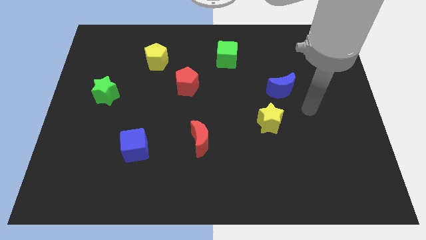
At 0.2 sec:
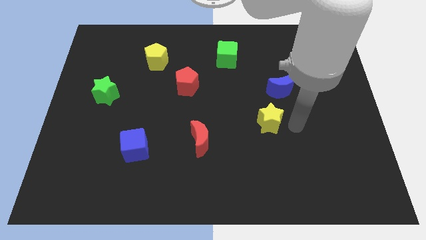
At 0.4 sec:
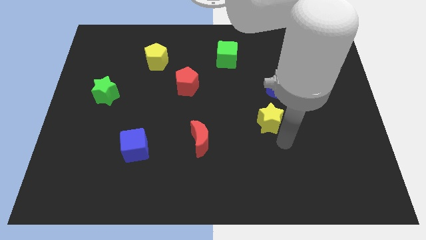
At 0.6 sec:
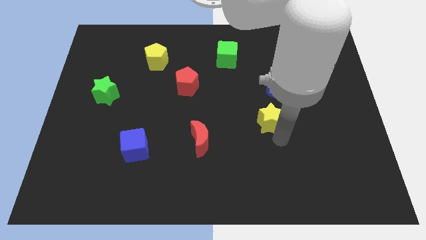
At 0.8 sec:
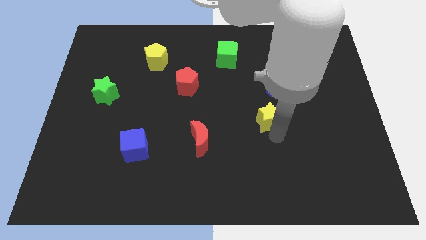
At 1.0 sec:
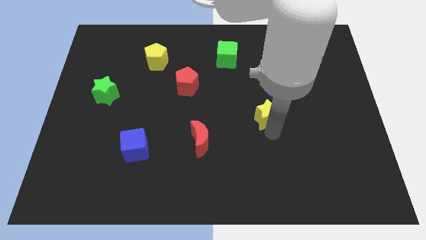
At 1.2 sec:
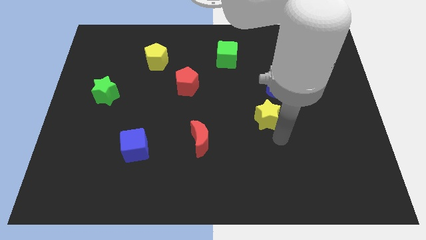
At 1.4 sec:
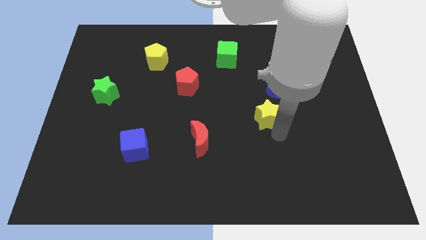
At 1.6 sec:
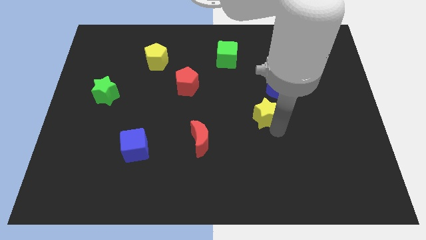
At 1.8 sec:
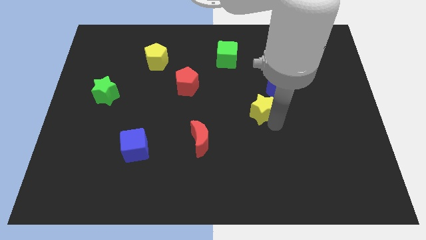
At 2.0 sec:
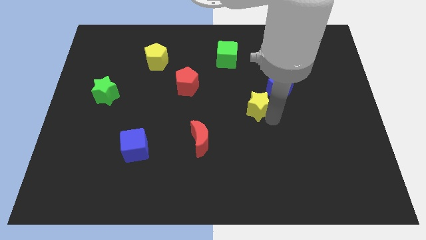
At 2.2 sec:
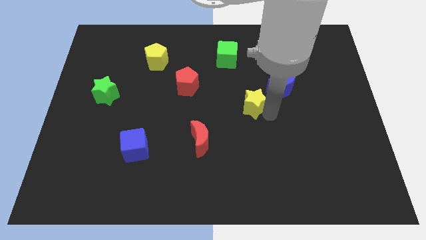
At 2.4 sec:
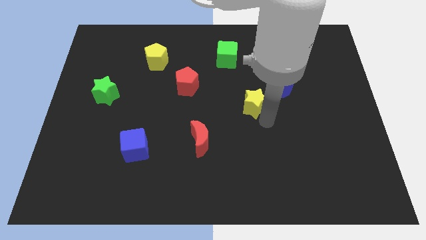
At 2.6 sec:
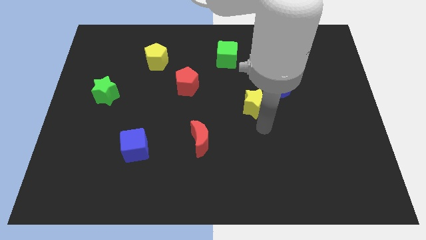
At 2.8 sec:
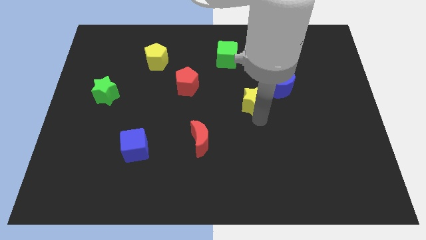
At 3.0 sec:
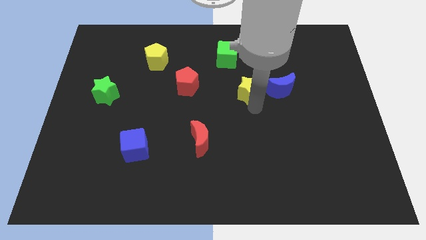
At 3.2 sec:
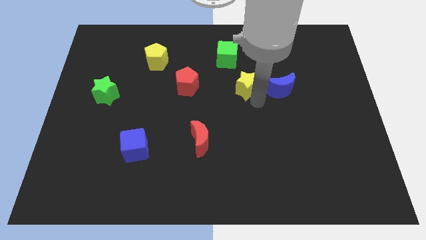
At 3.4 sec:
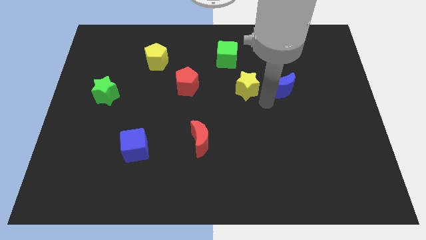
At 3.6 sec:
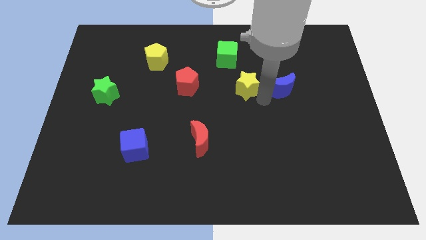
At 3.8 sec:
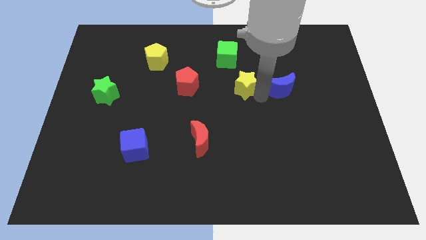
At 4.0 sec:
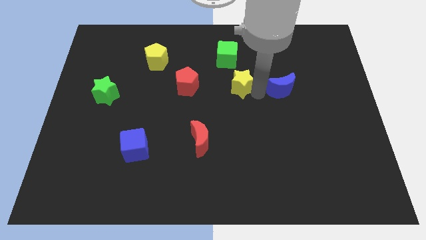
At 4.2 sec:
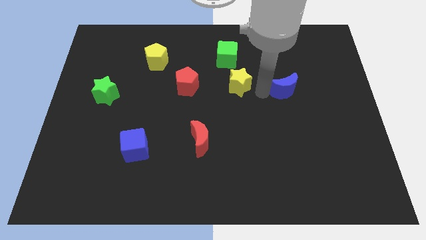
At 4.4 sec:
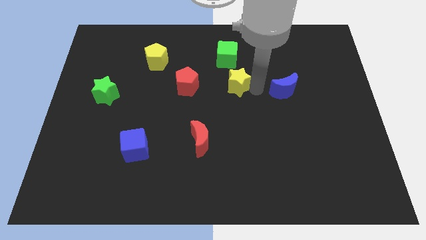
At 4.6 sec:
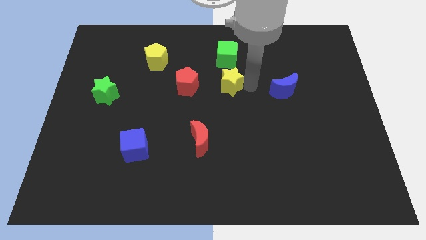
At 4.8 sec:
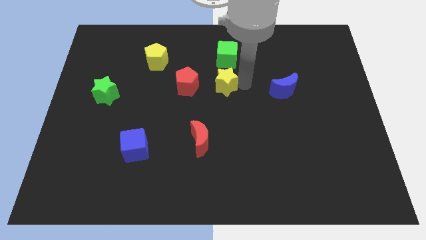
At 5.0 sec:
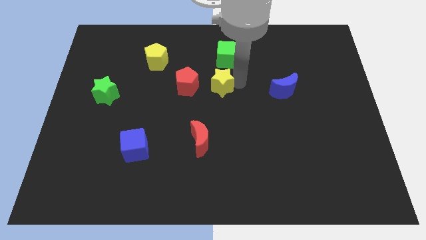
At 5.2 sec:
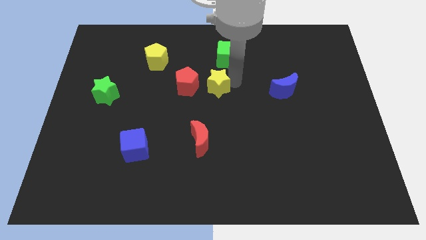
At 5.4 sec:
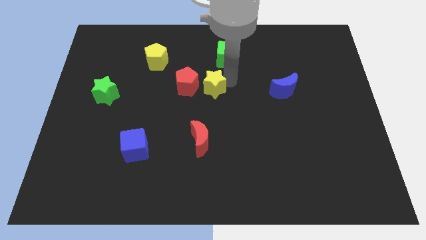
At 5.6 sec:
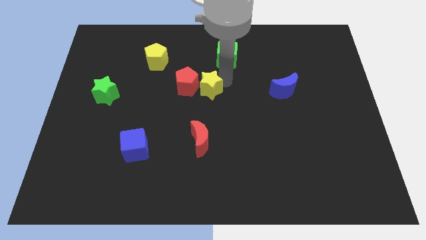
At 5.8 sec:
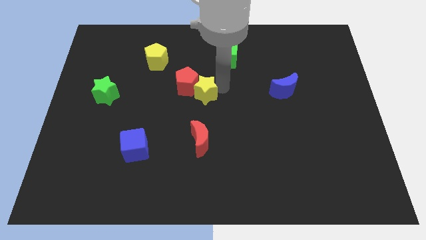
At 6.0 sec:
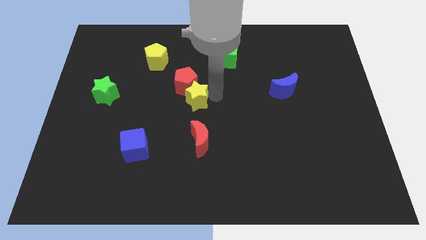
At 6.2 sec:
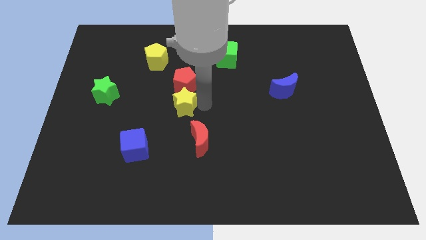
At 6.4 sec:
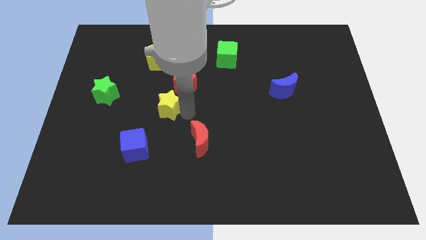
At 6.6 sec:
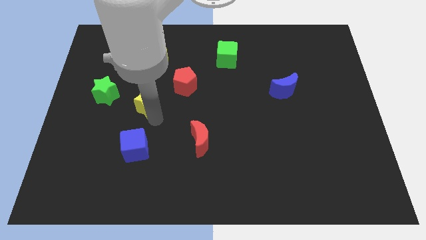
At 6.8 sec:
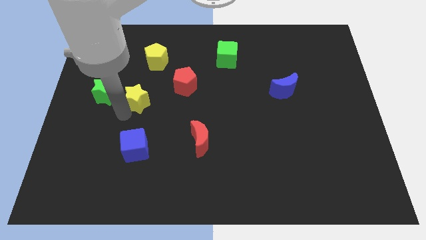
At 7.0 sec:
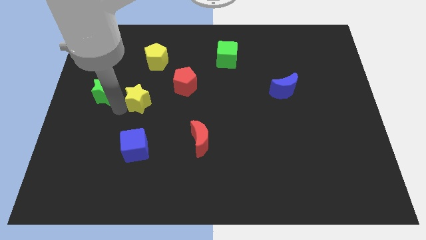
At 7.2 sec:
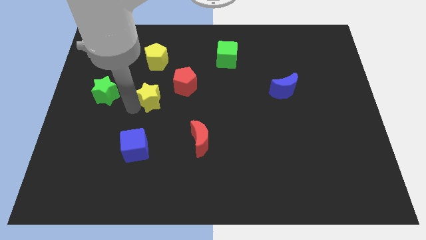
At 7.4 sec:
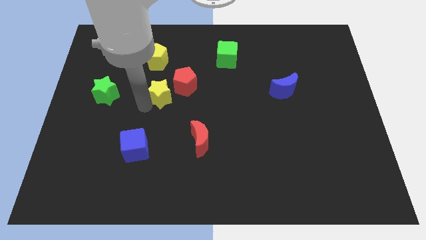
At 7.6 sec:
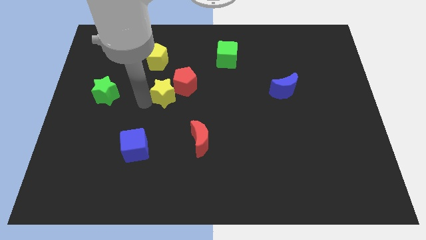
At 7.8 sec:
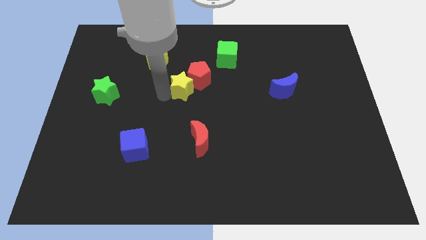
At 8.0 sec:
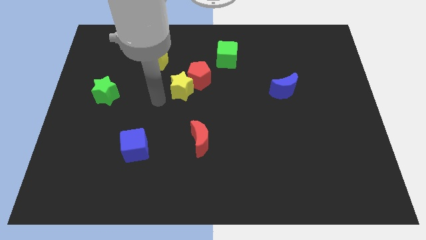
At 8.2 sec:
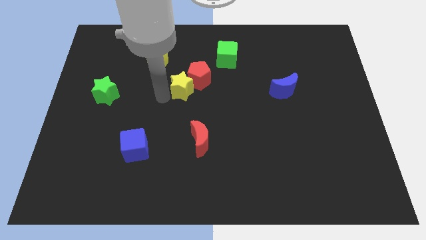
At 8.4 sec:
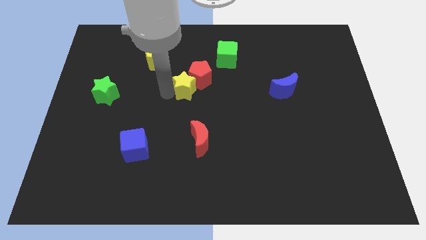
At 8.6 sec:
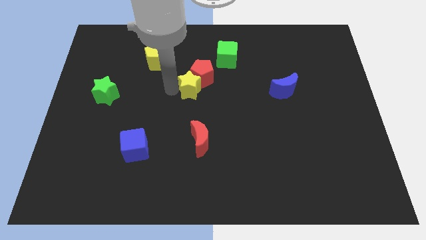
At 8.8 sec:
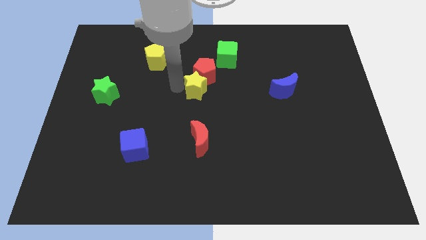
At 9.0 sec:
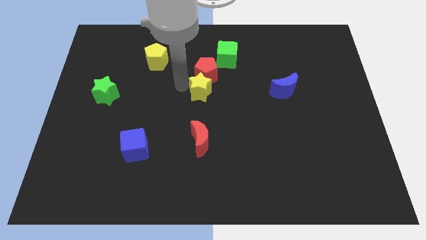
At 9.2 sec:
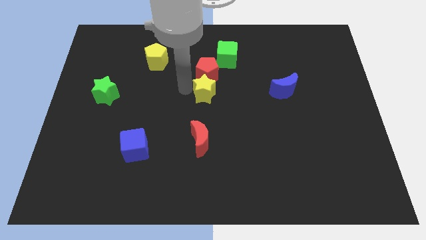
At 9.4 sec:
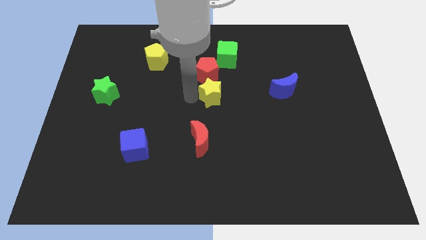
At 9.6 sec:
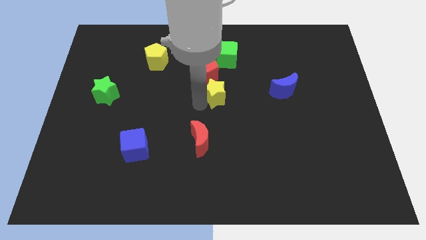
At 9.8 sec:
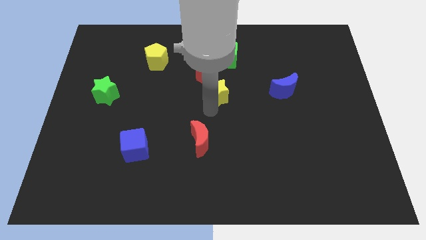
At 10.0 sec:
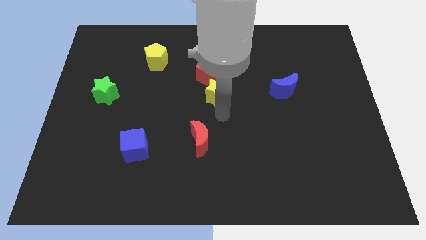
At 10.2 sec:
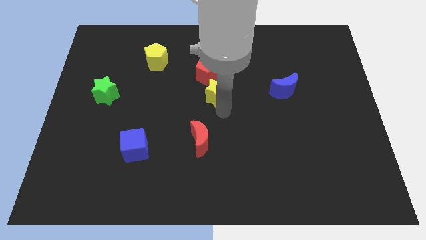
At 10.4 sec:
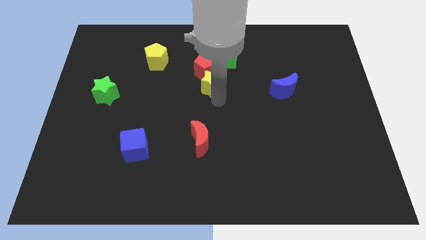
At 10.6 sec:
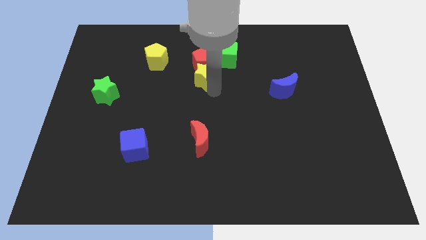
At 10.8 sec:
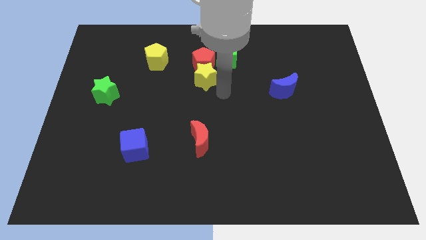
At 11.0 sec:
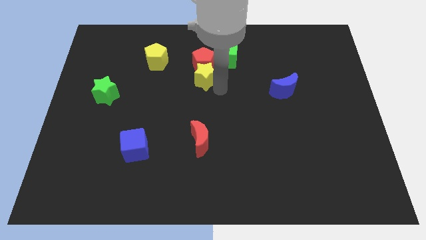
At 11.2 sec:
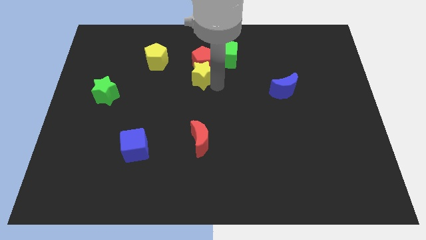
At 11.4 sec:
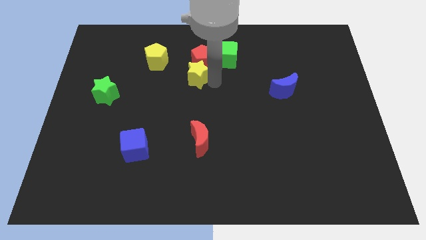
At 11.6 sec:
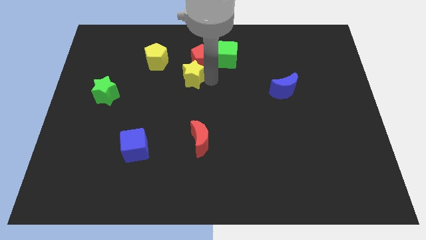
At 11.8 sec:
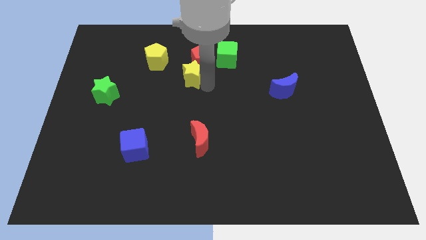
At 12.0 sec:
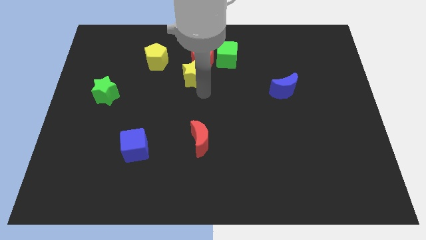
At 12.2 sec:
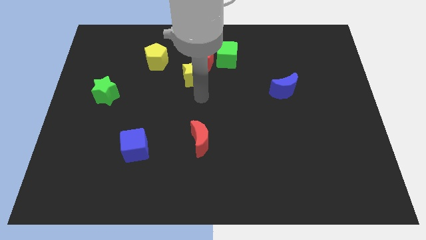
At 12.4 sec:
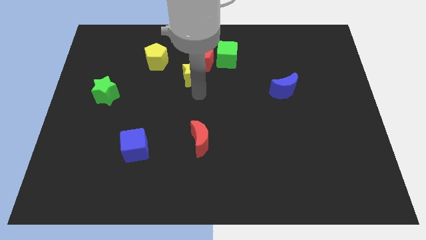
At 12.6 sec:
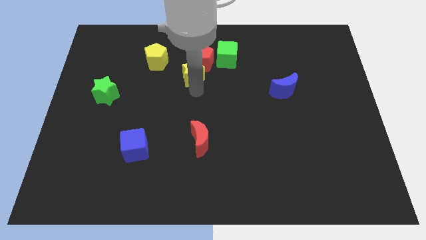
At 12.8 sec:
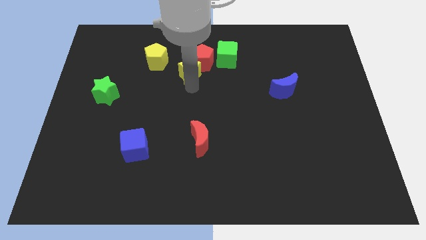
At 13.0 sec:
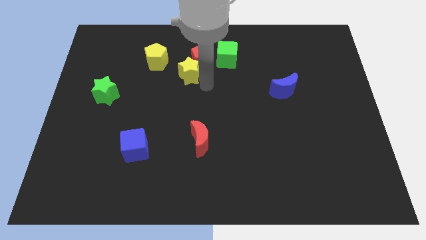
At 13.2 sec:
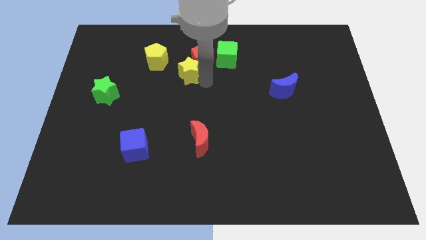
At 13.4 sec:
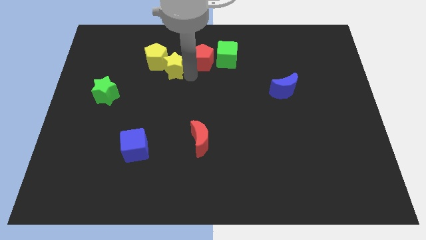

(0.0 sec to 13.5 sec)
slide the yellow star to the yellow pentagon
